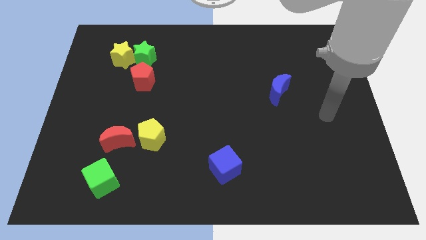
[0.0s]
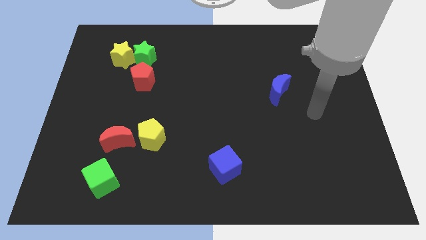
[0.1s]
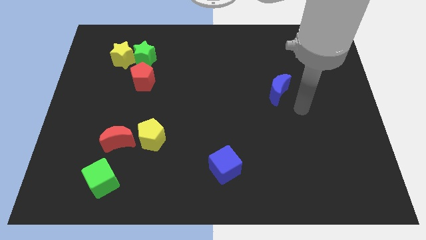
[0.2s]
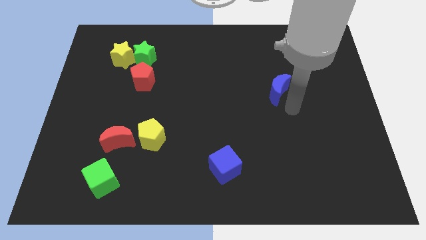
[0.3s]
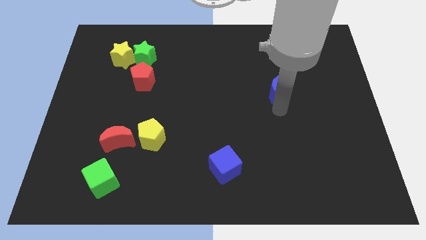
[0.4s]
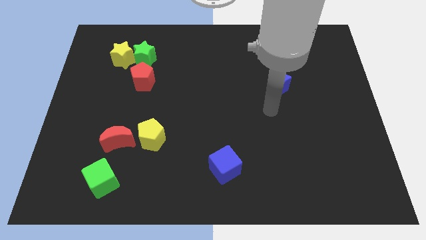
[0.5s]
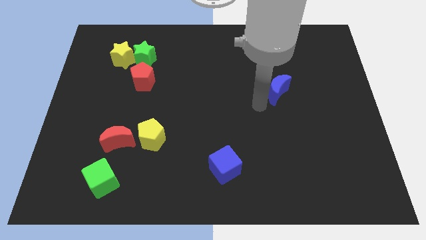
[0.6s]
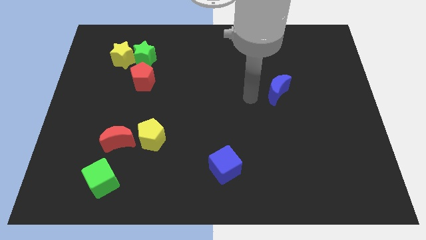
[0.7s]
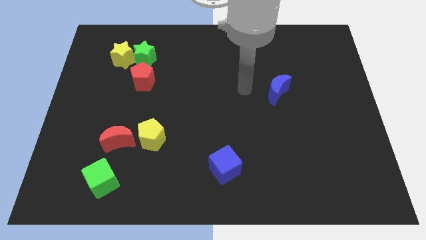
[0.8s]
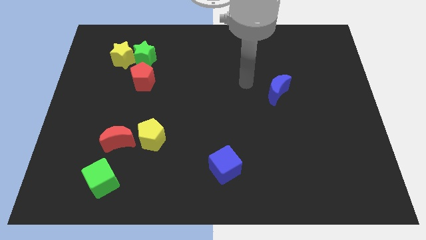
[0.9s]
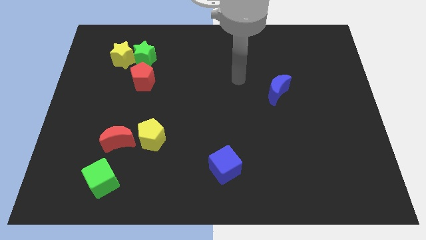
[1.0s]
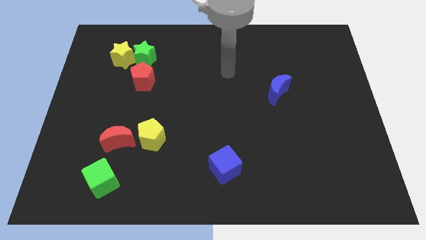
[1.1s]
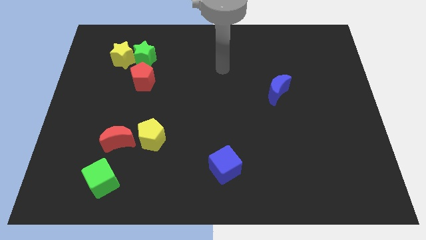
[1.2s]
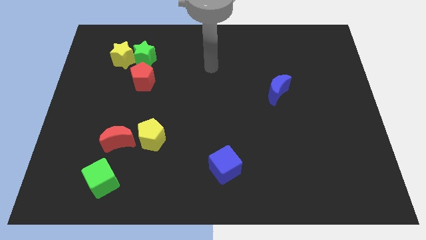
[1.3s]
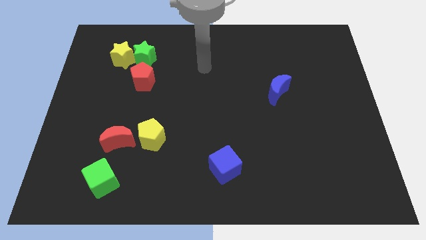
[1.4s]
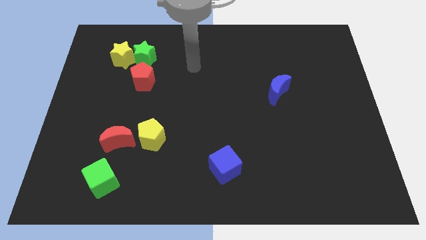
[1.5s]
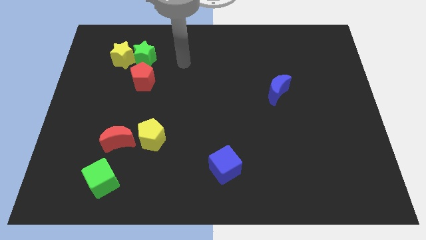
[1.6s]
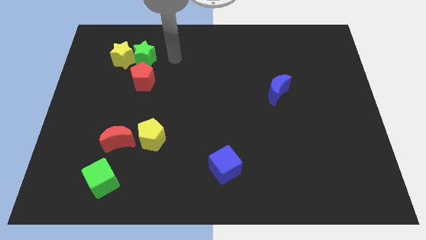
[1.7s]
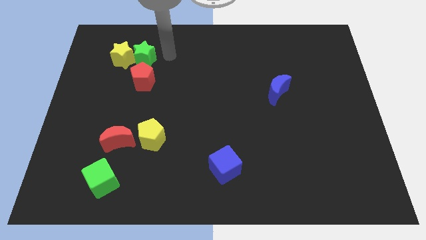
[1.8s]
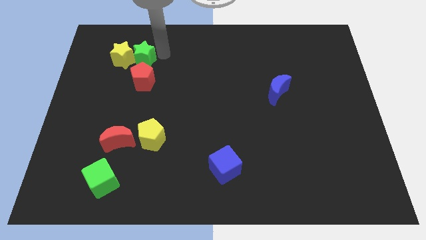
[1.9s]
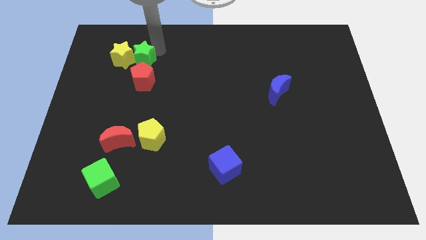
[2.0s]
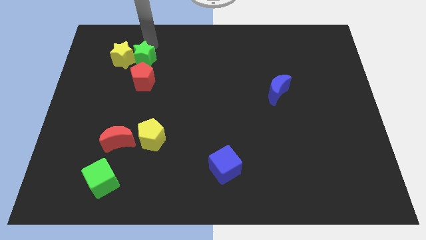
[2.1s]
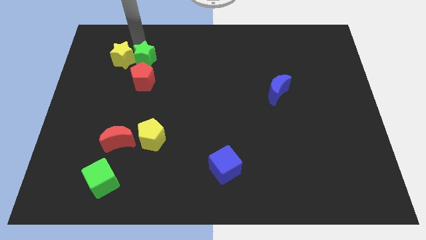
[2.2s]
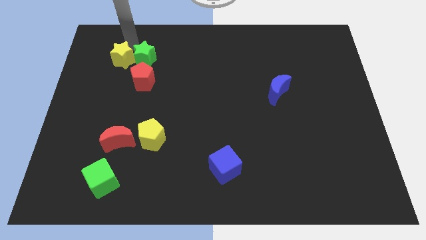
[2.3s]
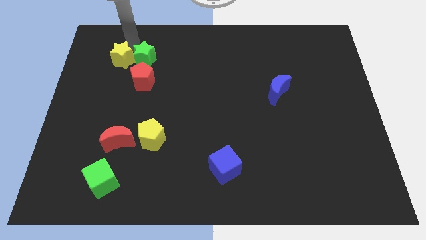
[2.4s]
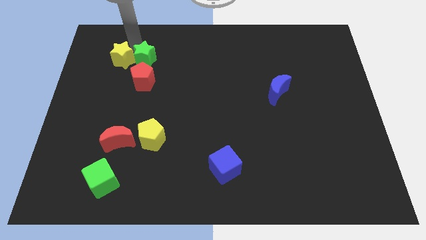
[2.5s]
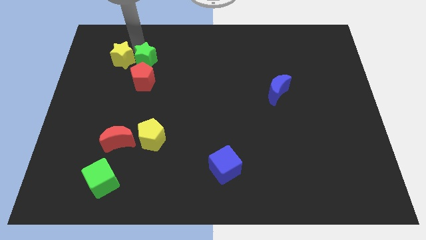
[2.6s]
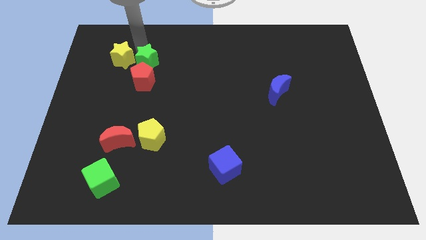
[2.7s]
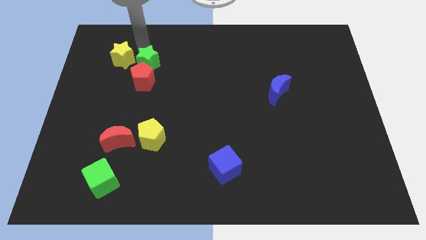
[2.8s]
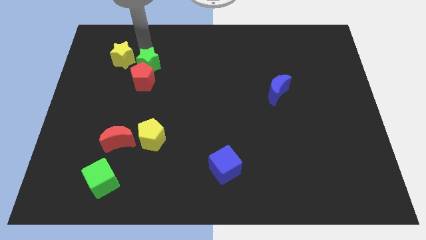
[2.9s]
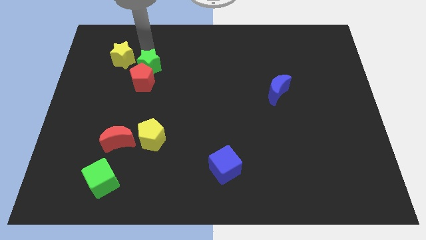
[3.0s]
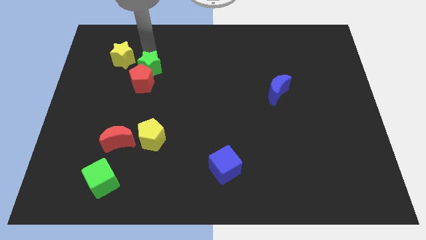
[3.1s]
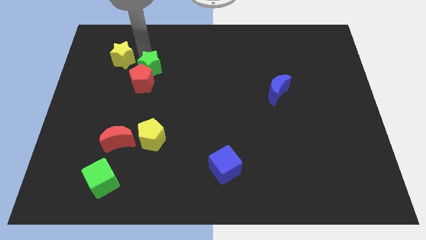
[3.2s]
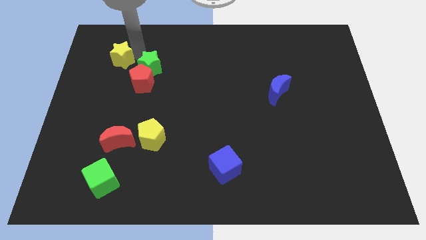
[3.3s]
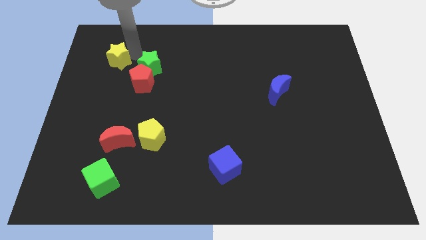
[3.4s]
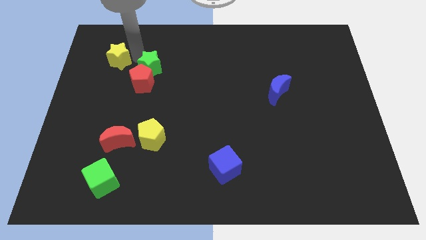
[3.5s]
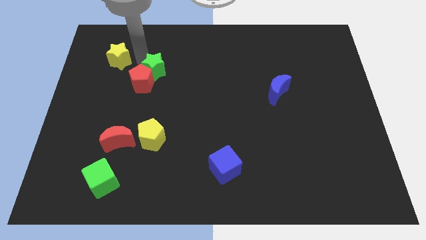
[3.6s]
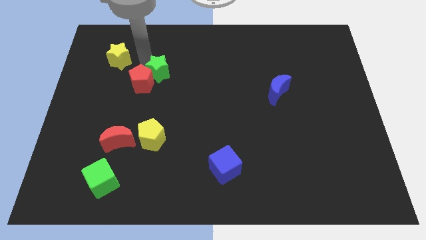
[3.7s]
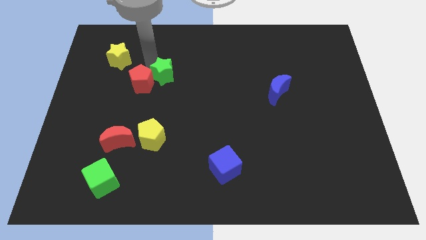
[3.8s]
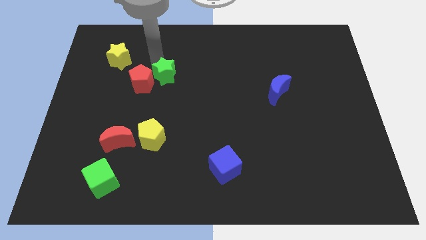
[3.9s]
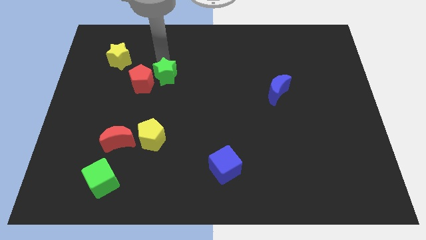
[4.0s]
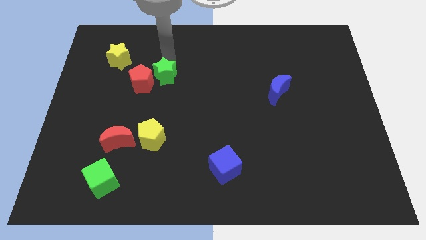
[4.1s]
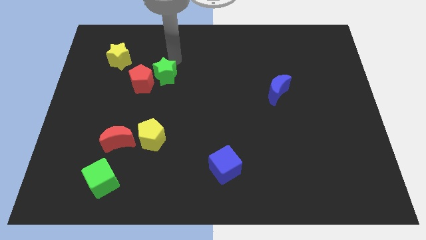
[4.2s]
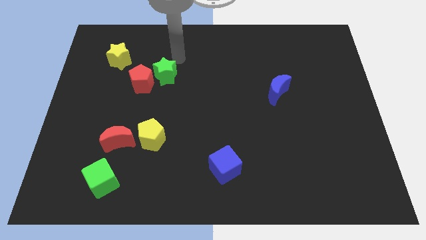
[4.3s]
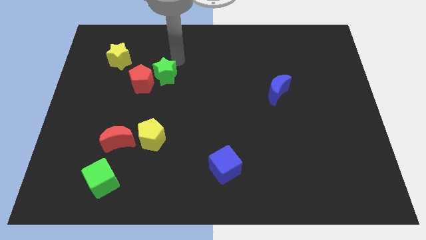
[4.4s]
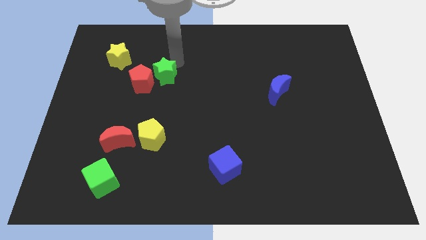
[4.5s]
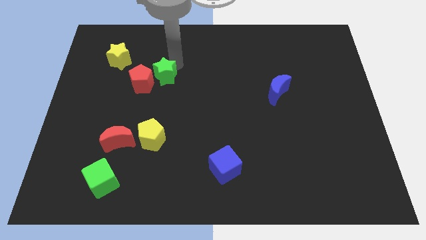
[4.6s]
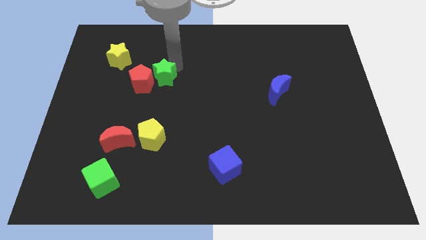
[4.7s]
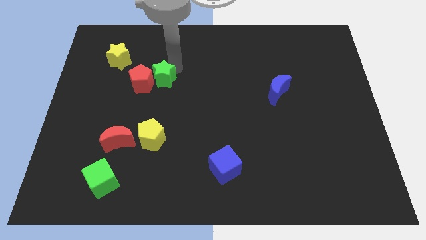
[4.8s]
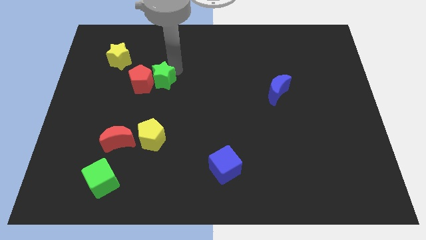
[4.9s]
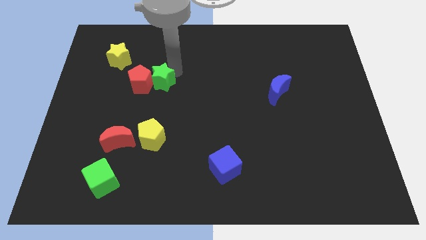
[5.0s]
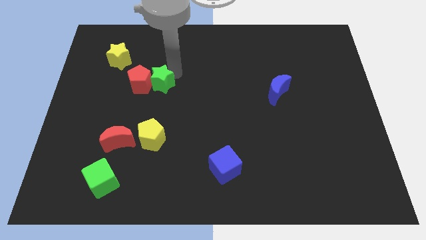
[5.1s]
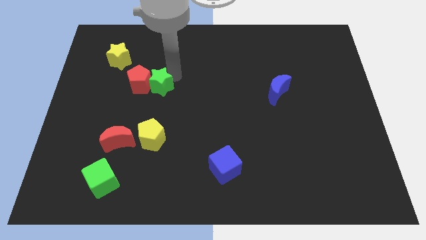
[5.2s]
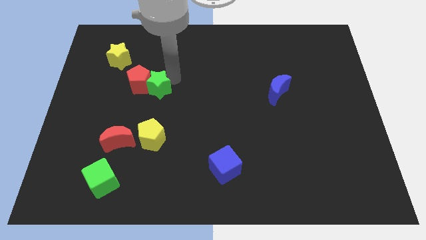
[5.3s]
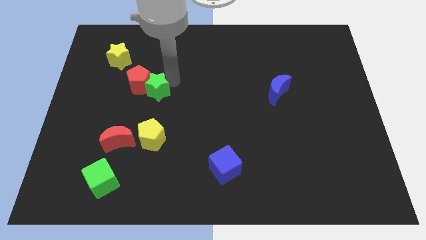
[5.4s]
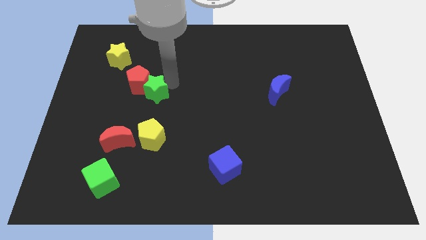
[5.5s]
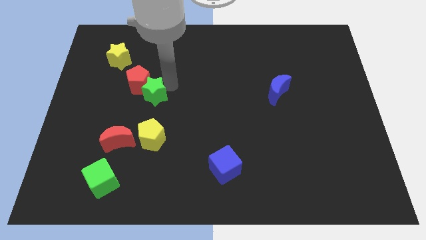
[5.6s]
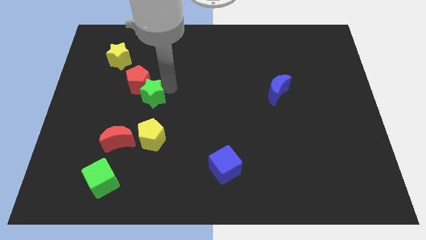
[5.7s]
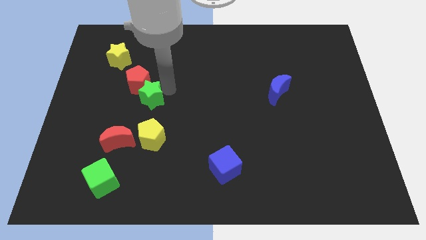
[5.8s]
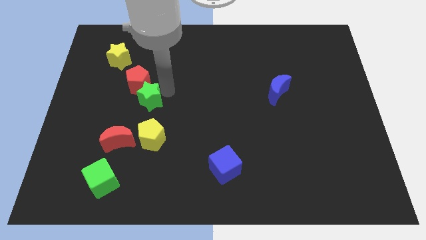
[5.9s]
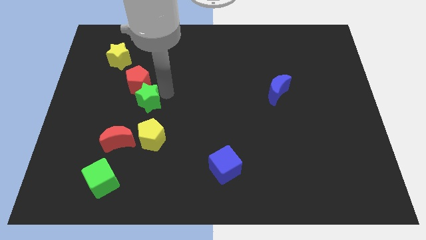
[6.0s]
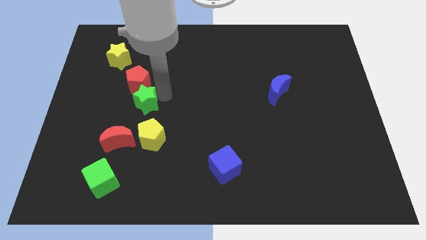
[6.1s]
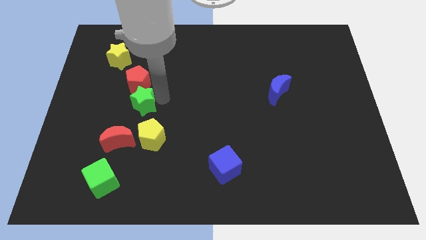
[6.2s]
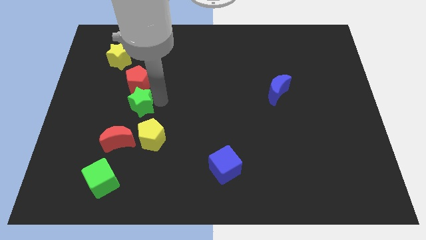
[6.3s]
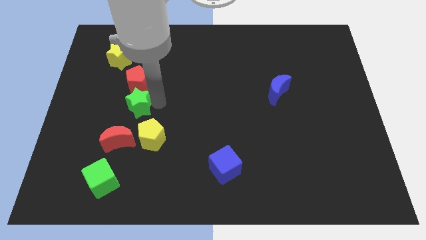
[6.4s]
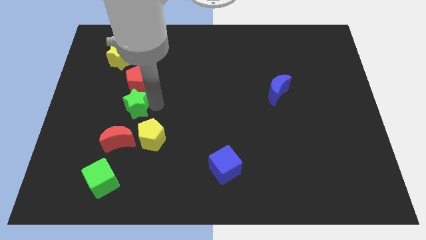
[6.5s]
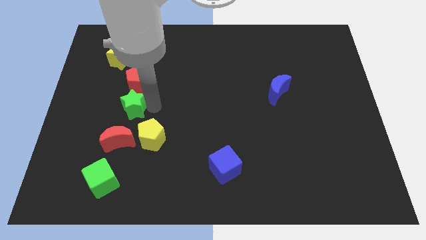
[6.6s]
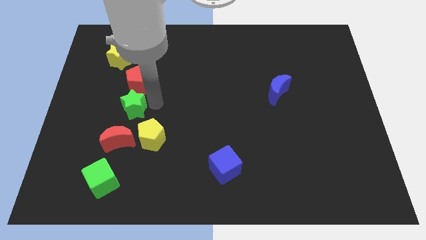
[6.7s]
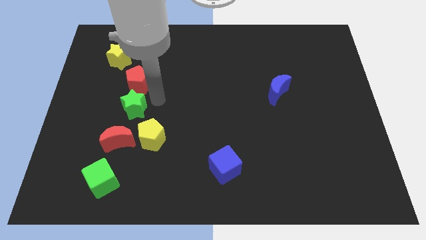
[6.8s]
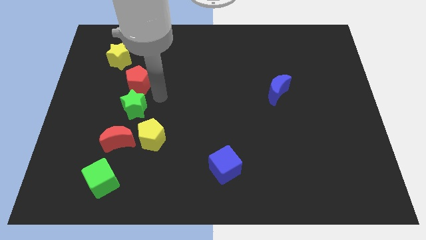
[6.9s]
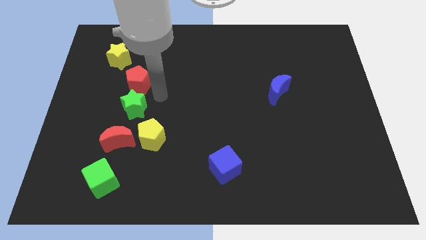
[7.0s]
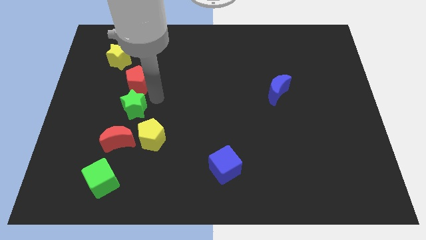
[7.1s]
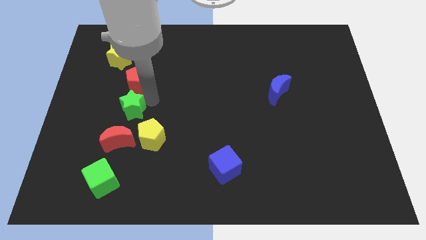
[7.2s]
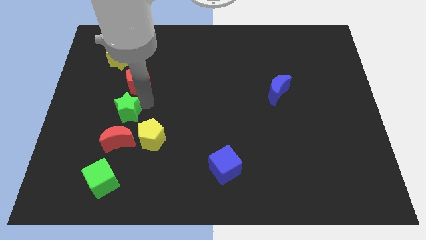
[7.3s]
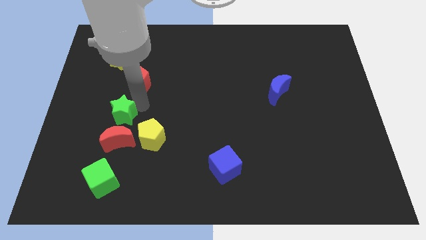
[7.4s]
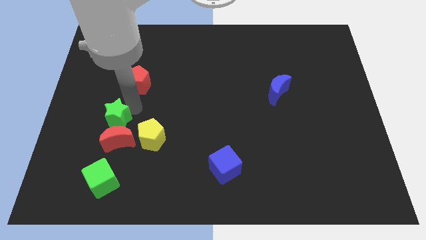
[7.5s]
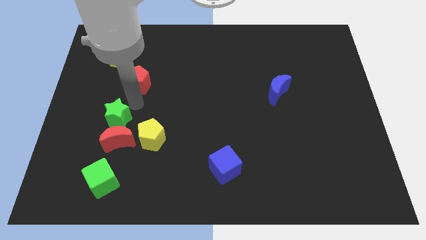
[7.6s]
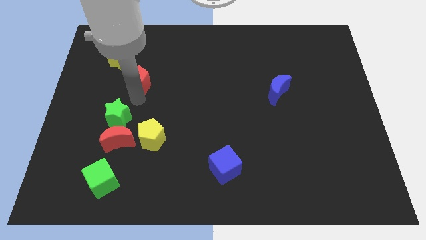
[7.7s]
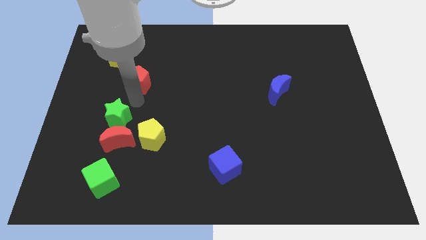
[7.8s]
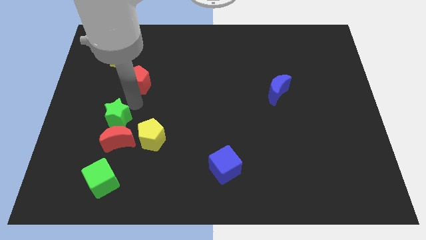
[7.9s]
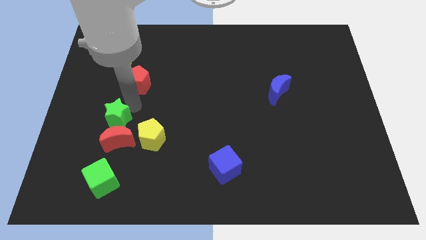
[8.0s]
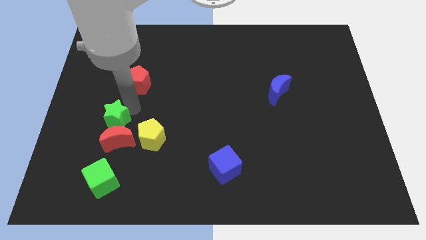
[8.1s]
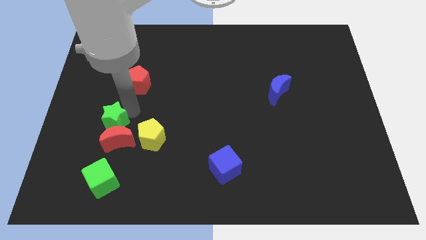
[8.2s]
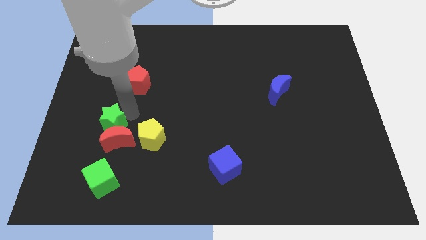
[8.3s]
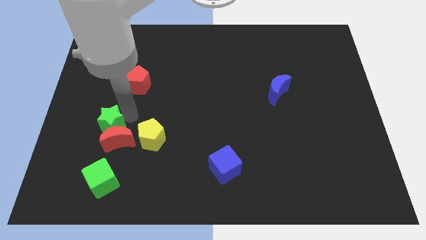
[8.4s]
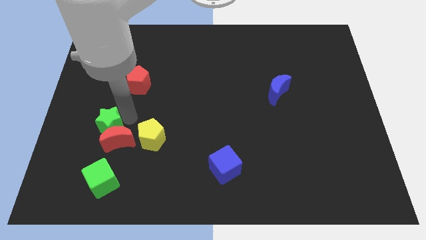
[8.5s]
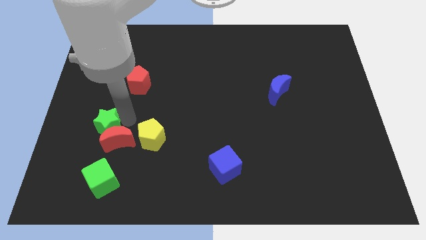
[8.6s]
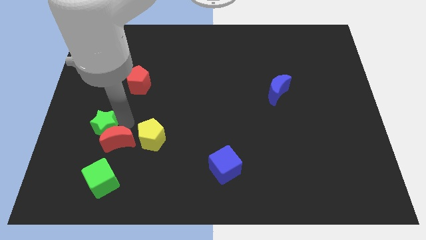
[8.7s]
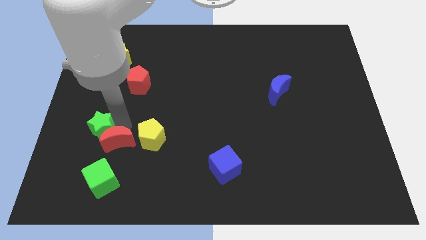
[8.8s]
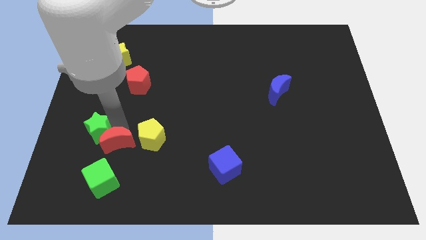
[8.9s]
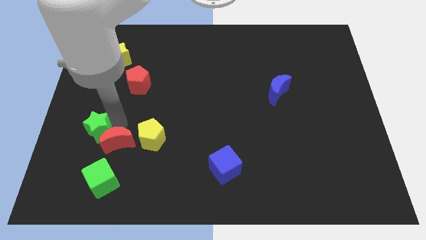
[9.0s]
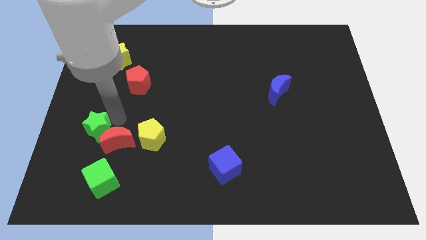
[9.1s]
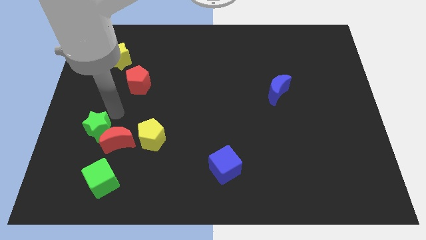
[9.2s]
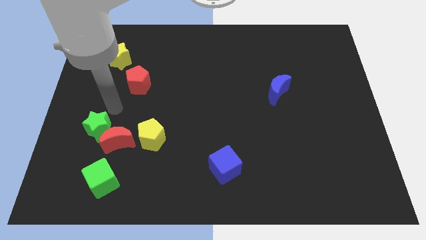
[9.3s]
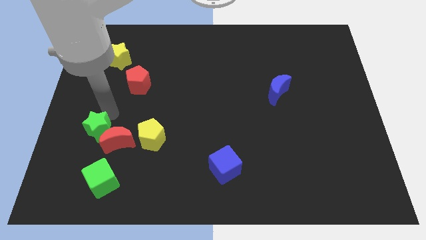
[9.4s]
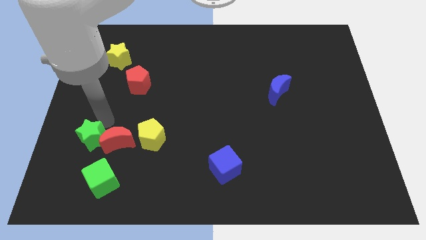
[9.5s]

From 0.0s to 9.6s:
slide the green star to the top left of the green cube
